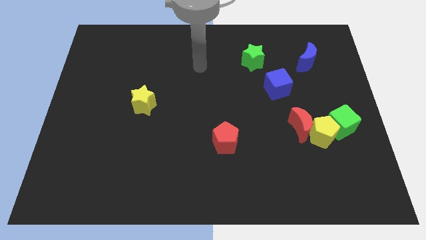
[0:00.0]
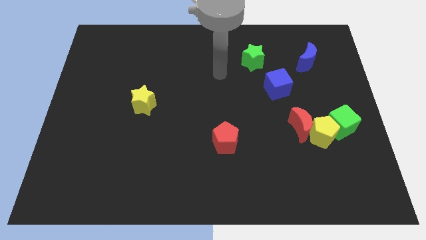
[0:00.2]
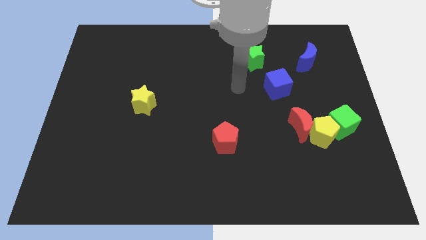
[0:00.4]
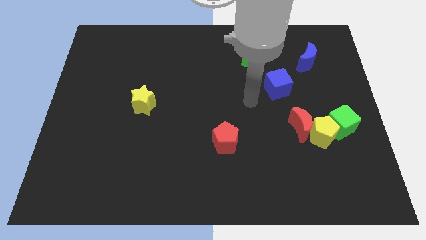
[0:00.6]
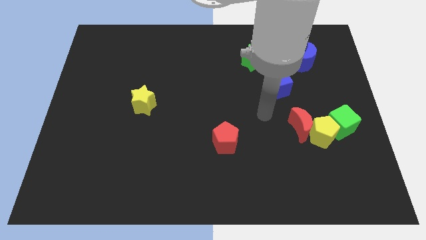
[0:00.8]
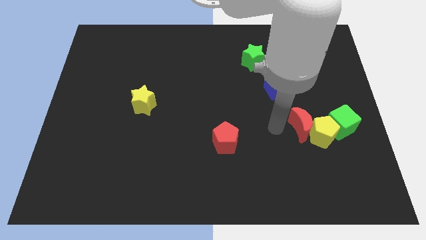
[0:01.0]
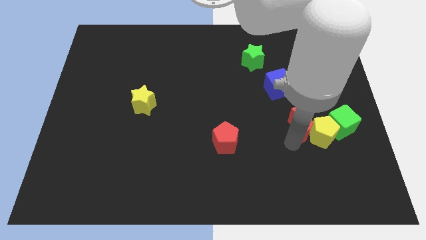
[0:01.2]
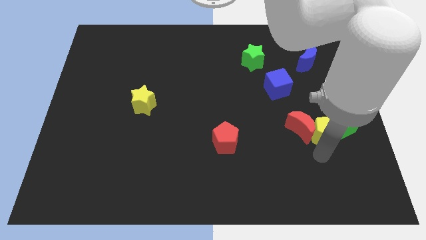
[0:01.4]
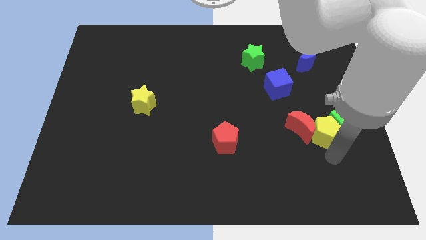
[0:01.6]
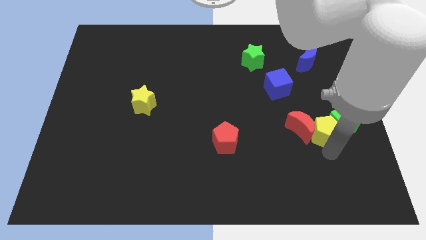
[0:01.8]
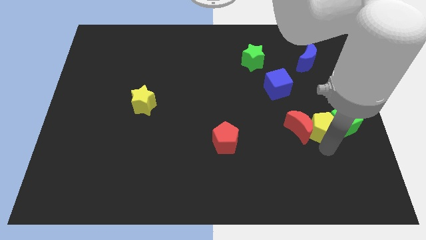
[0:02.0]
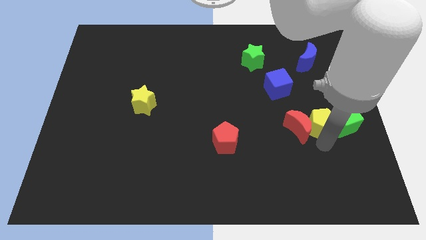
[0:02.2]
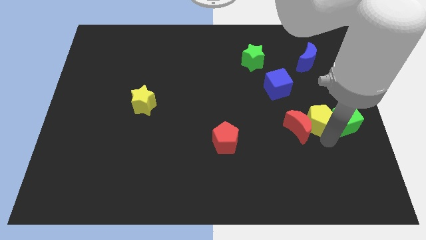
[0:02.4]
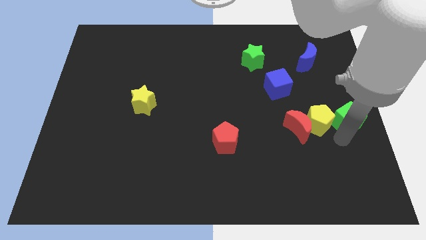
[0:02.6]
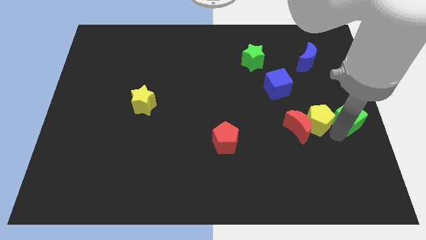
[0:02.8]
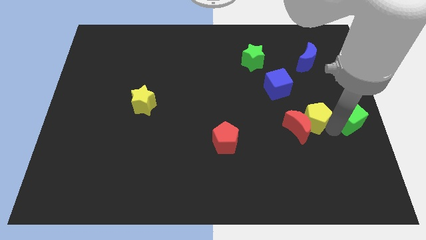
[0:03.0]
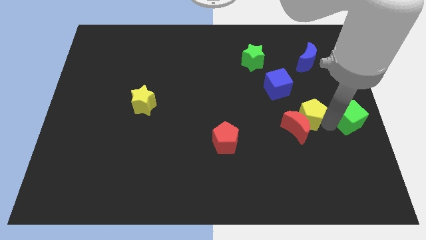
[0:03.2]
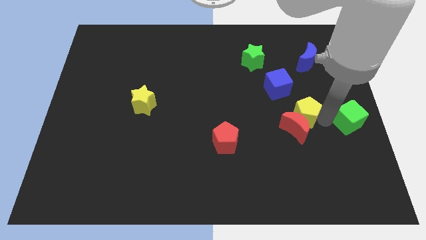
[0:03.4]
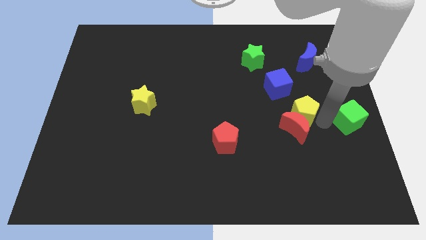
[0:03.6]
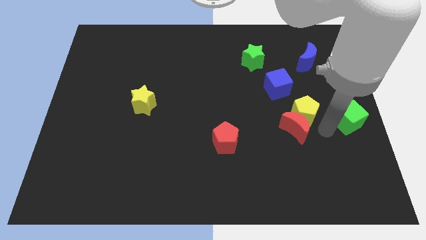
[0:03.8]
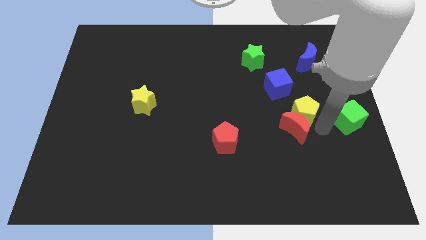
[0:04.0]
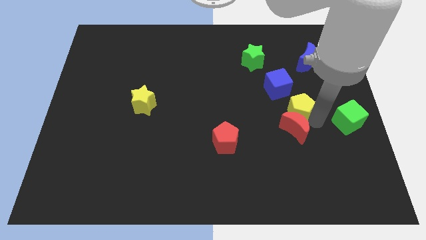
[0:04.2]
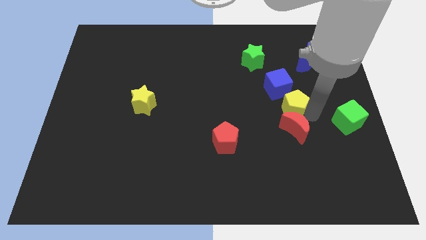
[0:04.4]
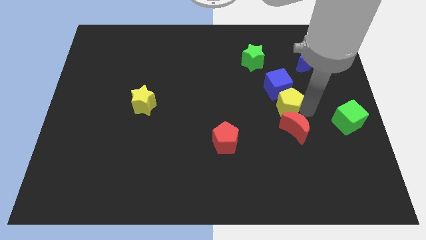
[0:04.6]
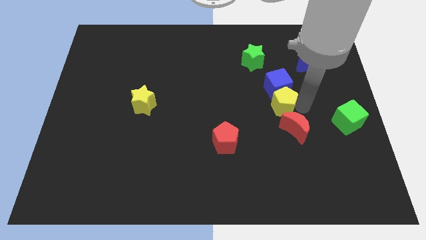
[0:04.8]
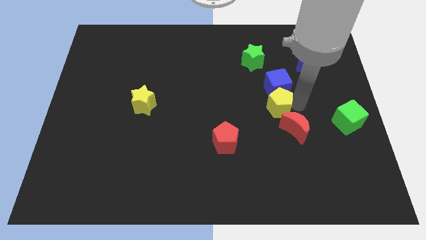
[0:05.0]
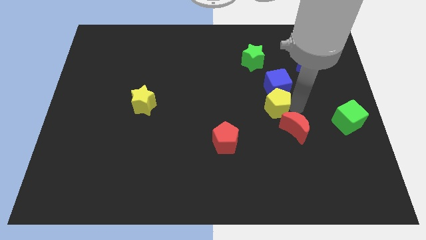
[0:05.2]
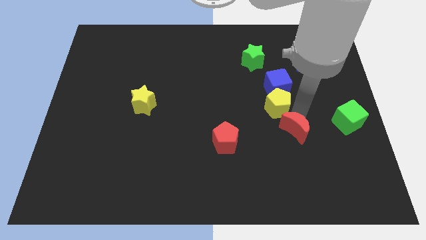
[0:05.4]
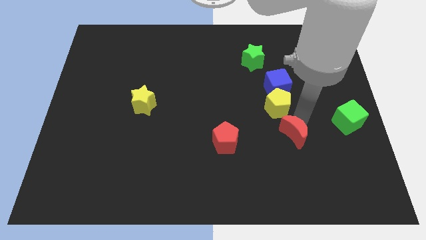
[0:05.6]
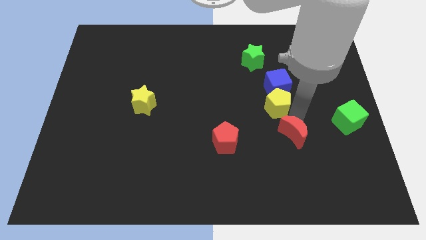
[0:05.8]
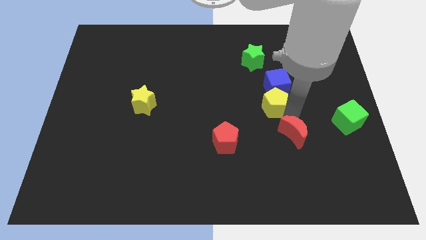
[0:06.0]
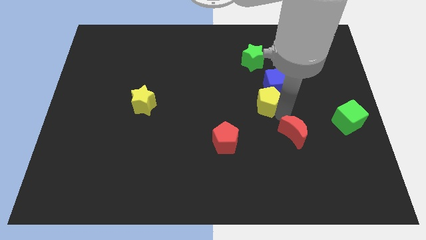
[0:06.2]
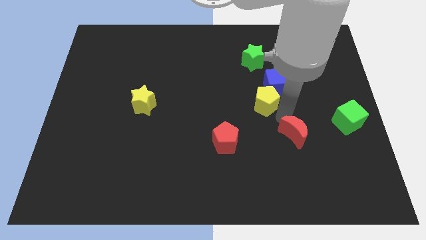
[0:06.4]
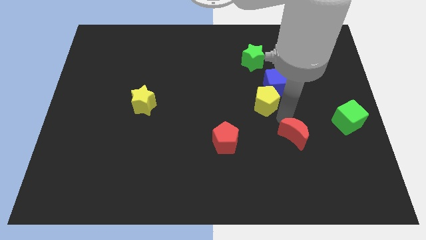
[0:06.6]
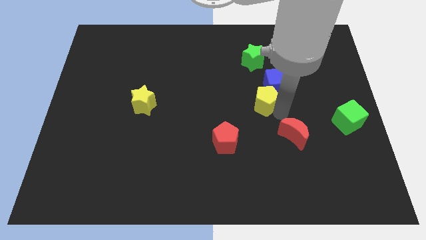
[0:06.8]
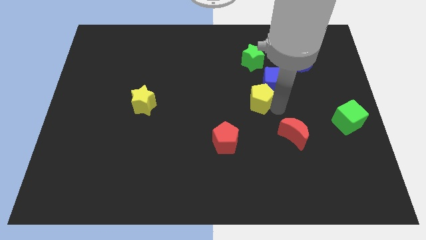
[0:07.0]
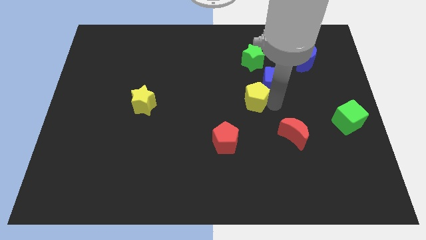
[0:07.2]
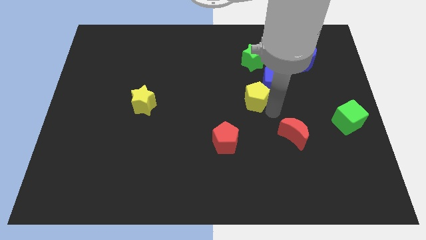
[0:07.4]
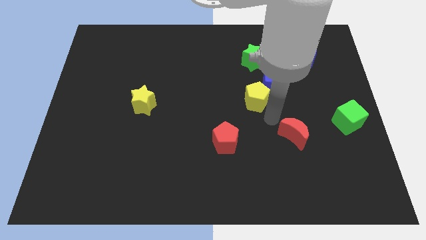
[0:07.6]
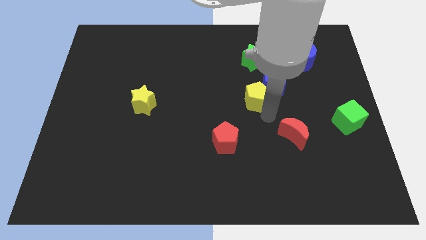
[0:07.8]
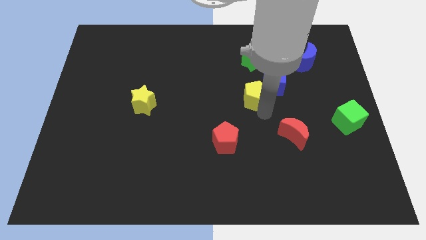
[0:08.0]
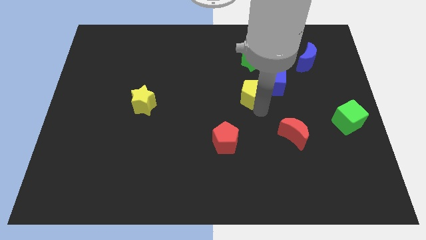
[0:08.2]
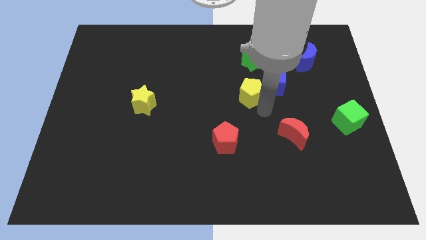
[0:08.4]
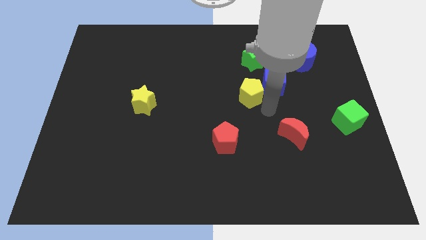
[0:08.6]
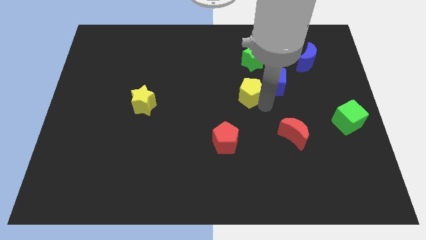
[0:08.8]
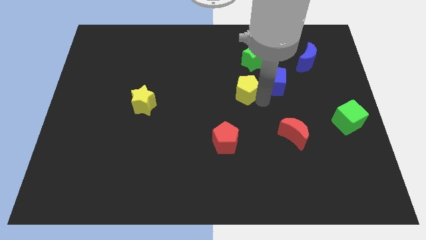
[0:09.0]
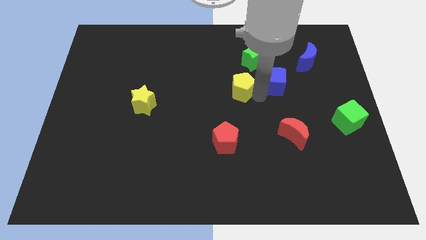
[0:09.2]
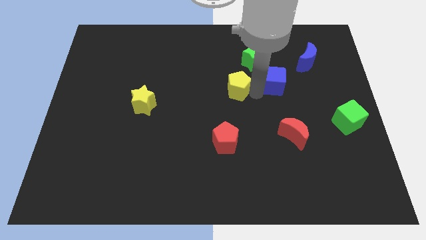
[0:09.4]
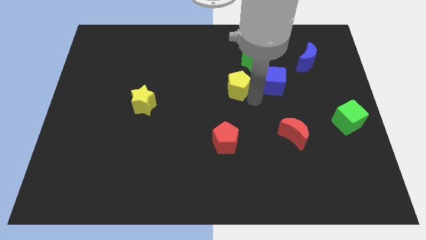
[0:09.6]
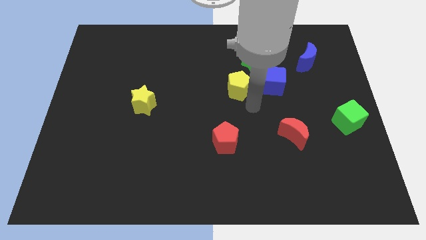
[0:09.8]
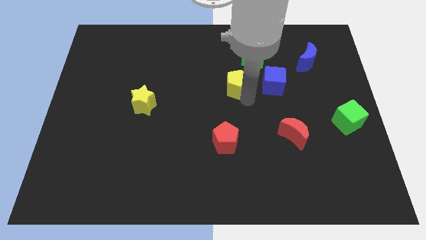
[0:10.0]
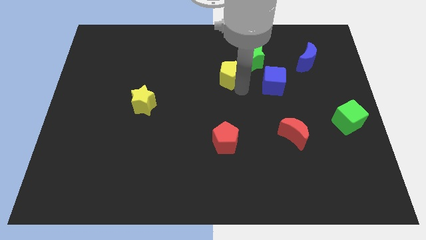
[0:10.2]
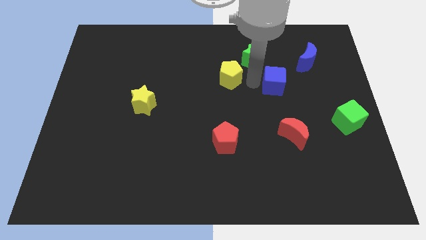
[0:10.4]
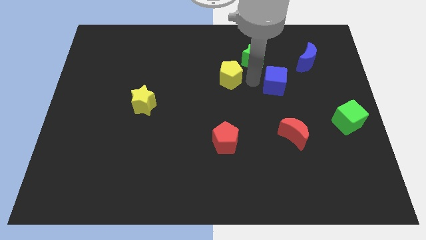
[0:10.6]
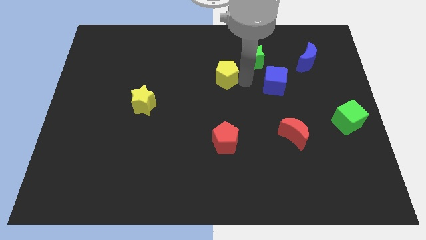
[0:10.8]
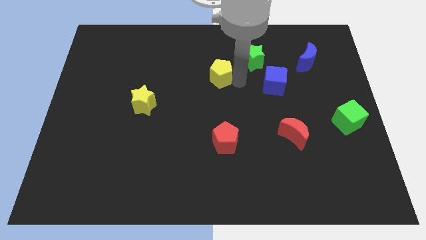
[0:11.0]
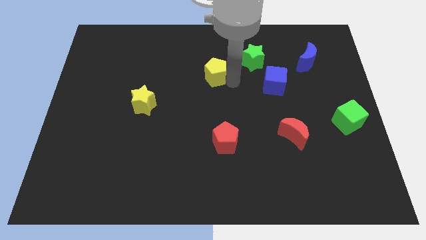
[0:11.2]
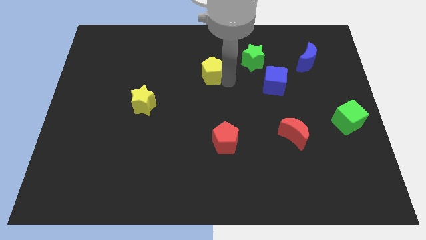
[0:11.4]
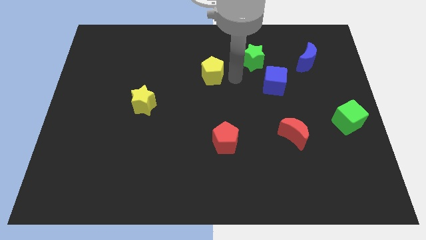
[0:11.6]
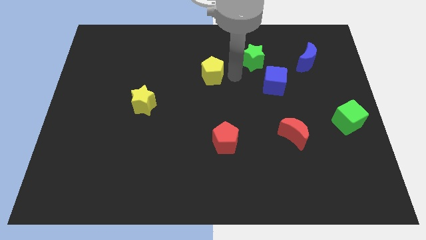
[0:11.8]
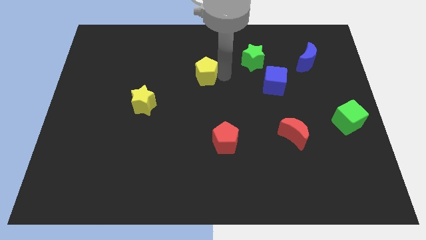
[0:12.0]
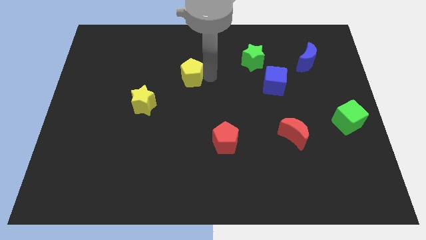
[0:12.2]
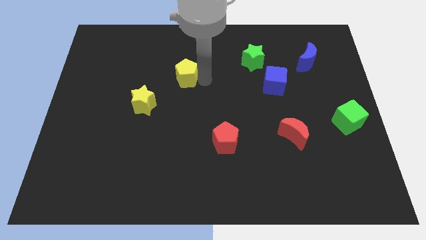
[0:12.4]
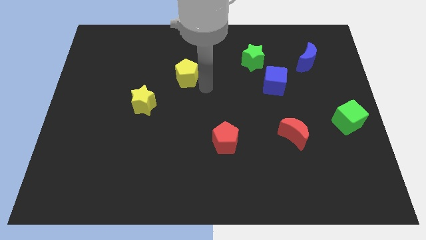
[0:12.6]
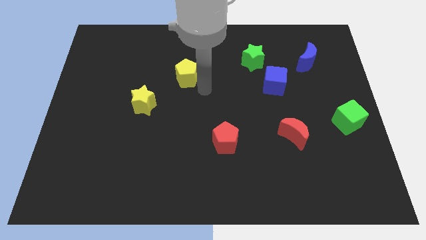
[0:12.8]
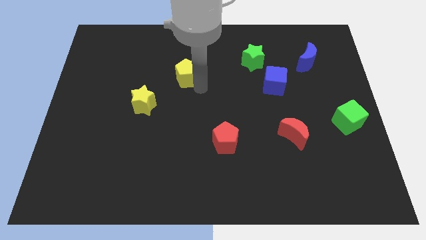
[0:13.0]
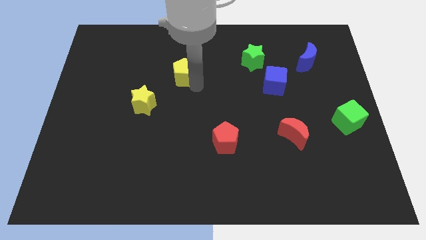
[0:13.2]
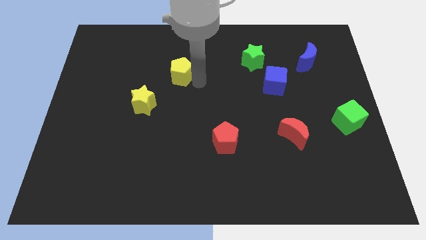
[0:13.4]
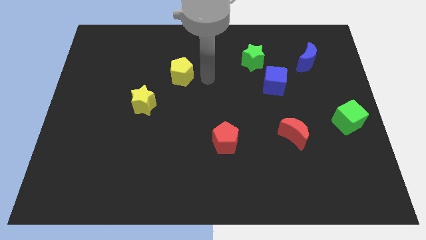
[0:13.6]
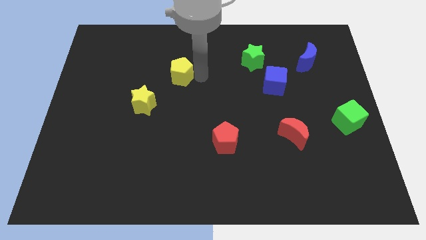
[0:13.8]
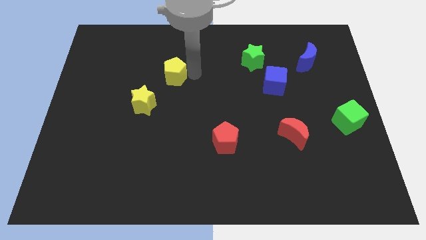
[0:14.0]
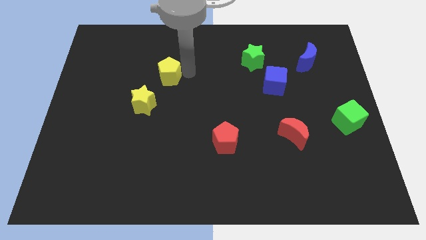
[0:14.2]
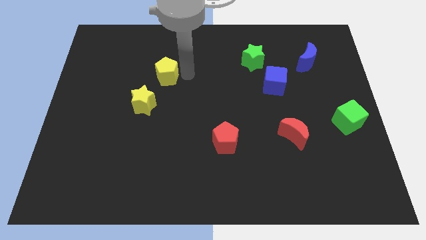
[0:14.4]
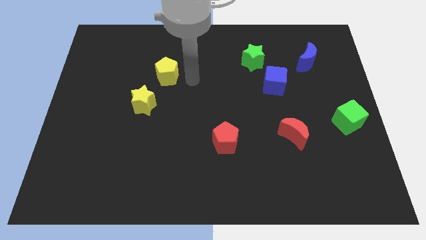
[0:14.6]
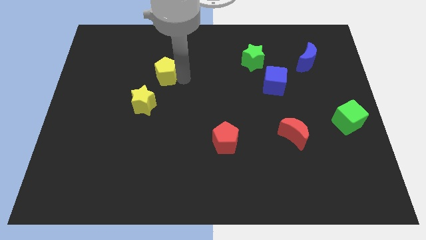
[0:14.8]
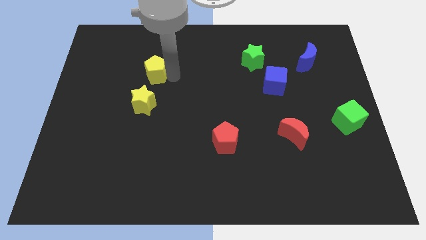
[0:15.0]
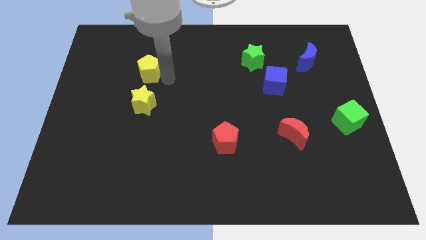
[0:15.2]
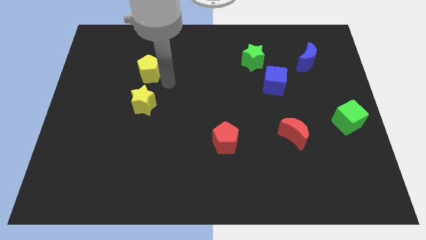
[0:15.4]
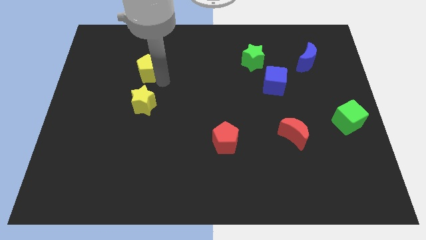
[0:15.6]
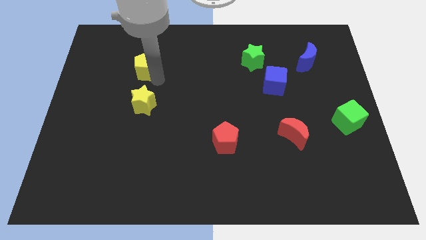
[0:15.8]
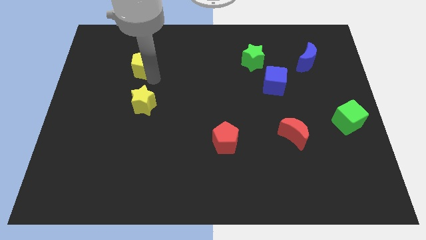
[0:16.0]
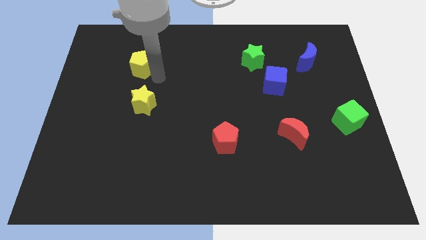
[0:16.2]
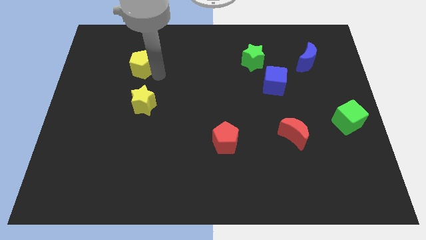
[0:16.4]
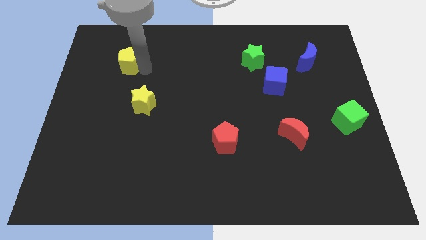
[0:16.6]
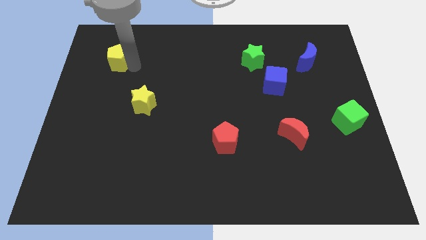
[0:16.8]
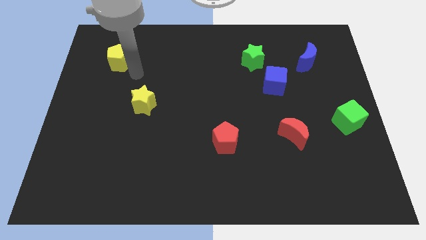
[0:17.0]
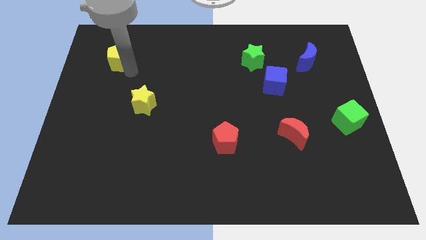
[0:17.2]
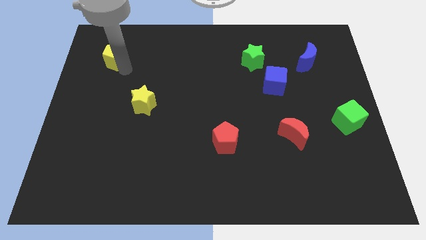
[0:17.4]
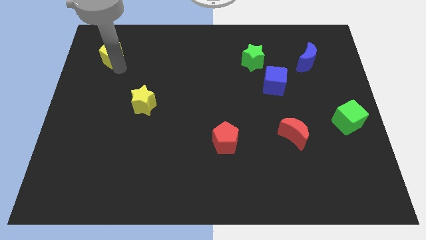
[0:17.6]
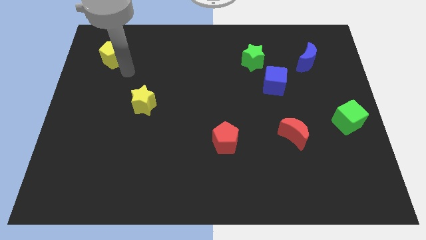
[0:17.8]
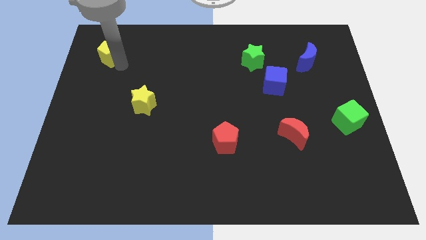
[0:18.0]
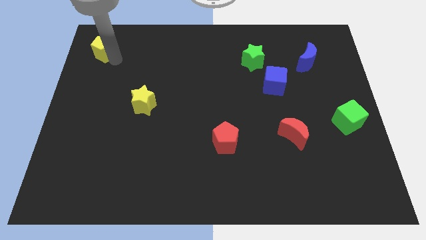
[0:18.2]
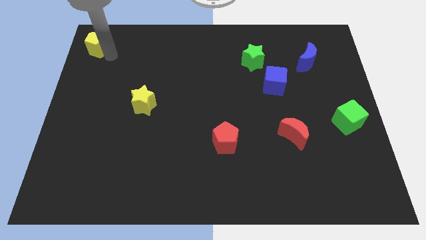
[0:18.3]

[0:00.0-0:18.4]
slide the yellow pentagon to the upper left corner
